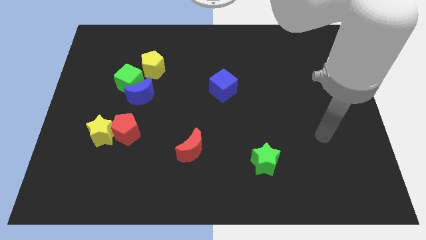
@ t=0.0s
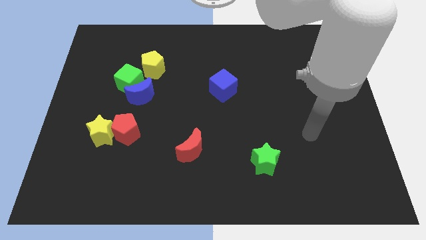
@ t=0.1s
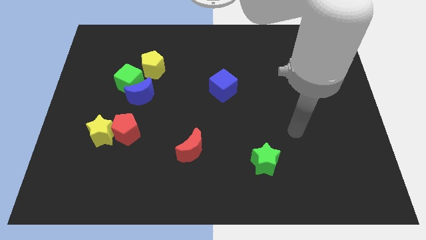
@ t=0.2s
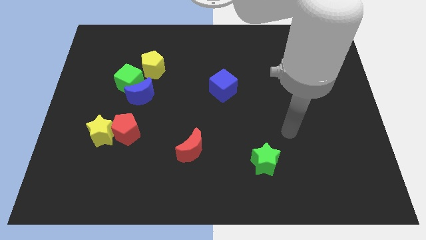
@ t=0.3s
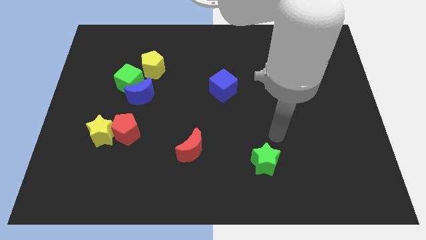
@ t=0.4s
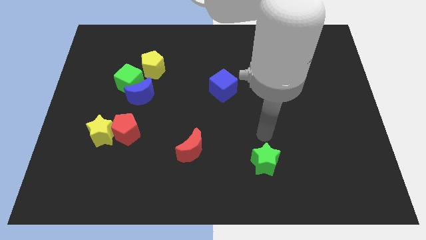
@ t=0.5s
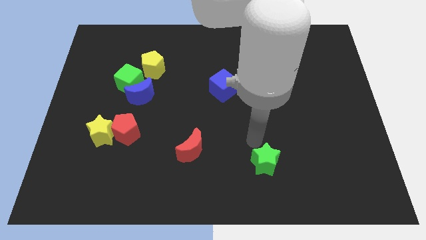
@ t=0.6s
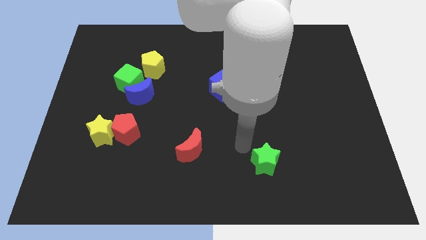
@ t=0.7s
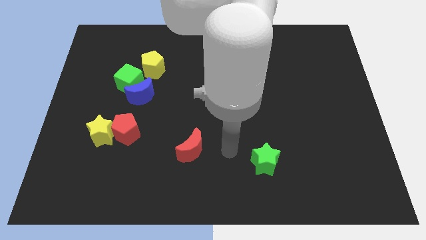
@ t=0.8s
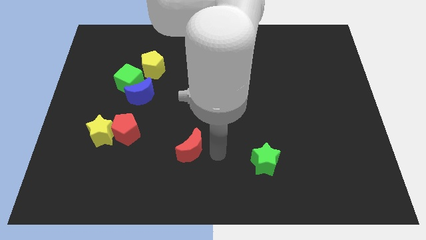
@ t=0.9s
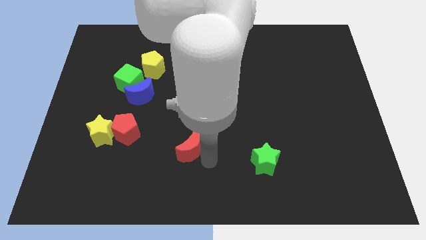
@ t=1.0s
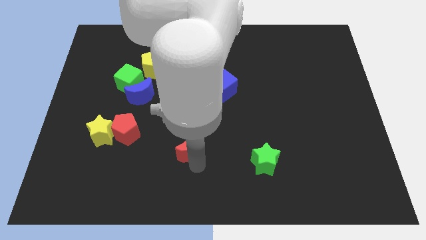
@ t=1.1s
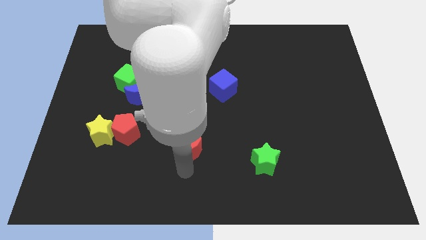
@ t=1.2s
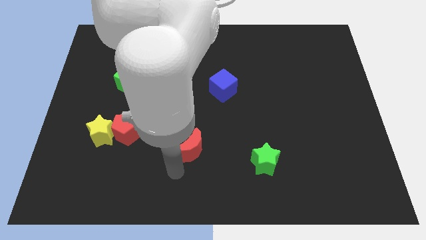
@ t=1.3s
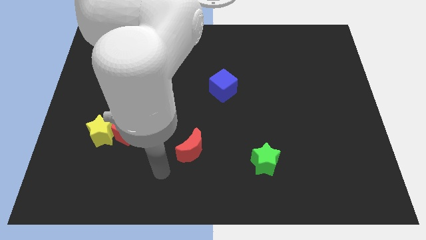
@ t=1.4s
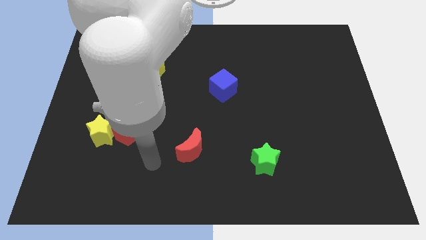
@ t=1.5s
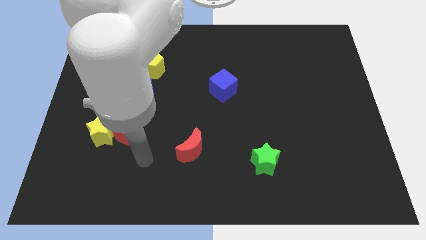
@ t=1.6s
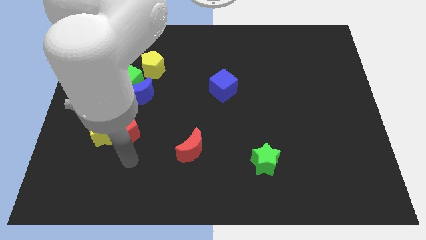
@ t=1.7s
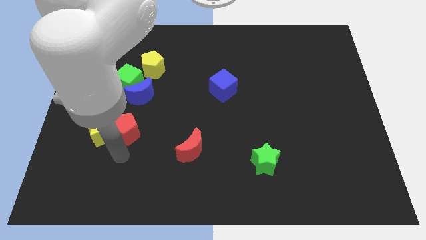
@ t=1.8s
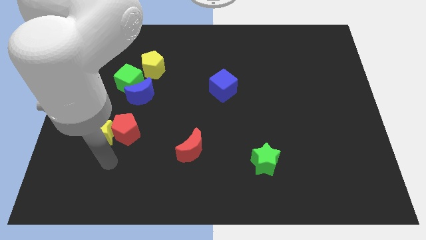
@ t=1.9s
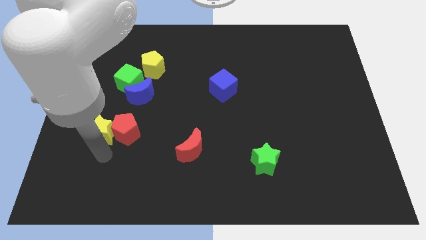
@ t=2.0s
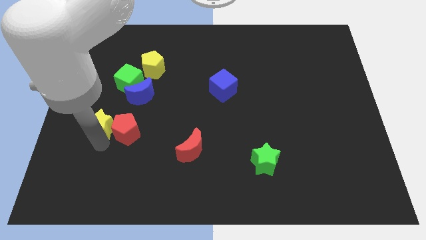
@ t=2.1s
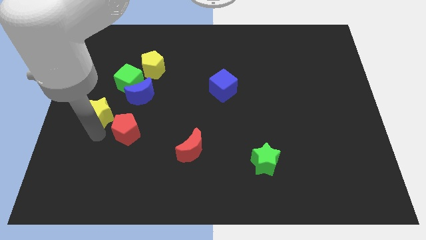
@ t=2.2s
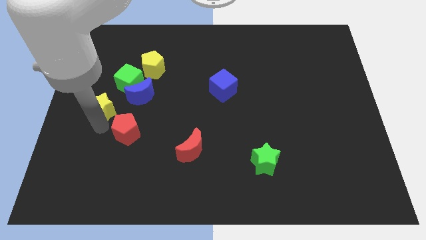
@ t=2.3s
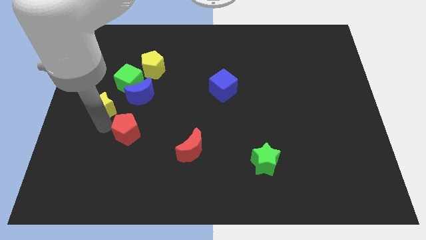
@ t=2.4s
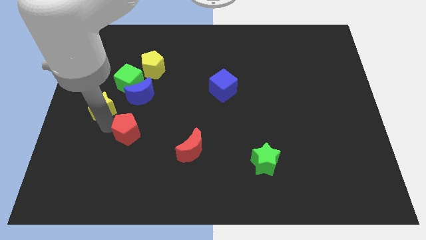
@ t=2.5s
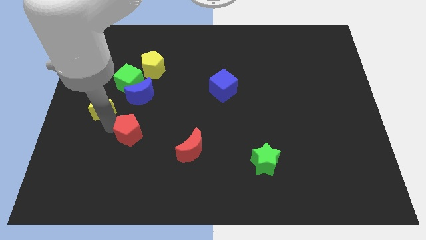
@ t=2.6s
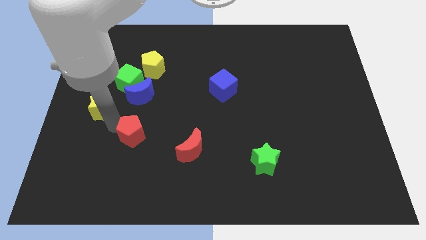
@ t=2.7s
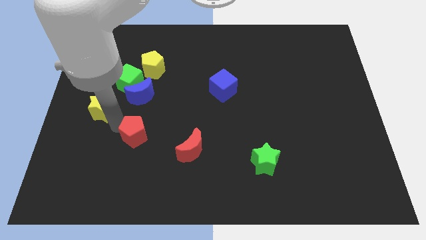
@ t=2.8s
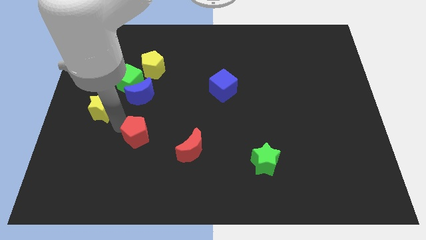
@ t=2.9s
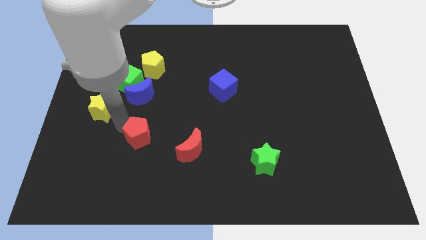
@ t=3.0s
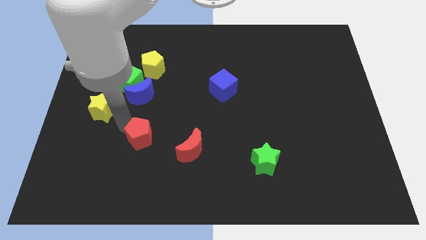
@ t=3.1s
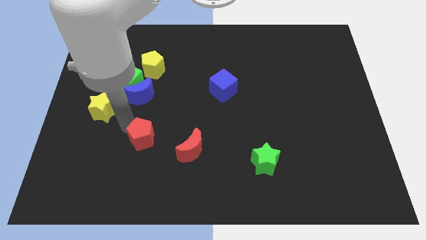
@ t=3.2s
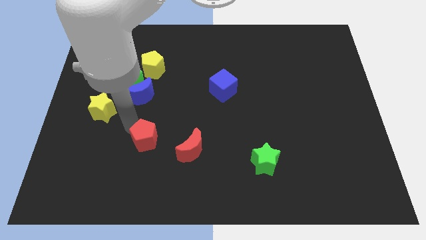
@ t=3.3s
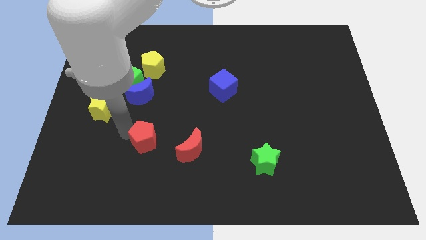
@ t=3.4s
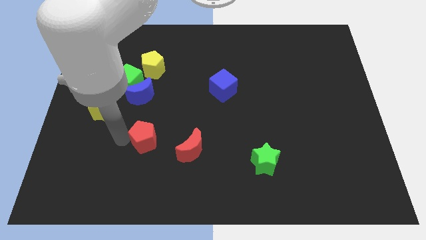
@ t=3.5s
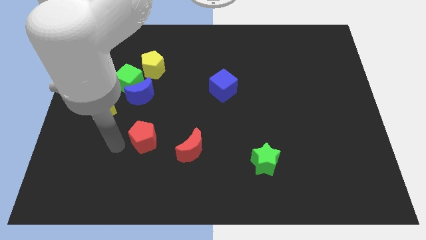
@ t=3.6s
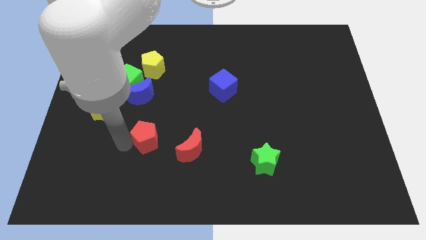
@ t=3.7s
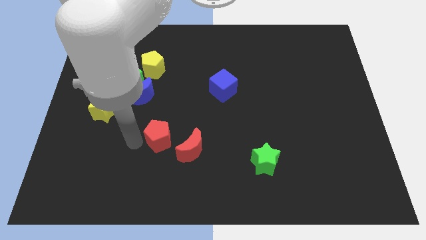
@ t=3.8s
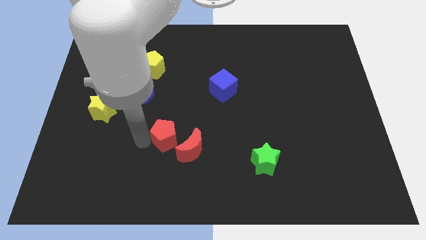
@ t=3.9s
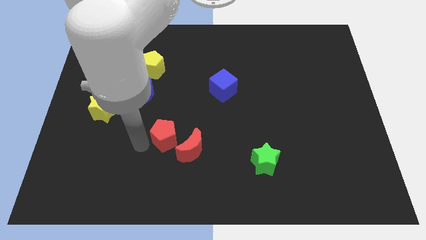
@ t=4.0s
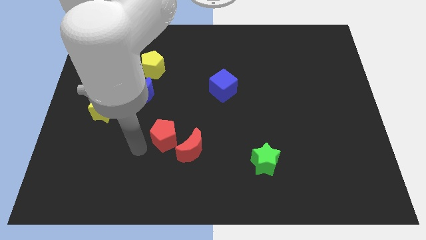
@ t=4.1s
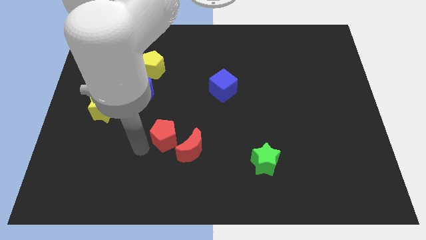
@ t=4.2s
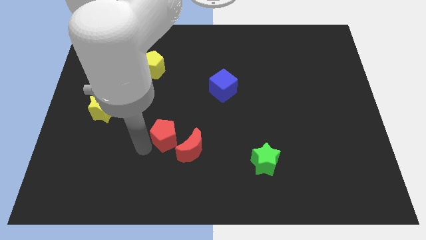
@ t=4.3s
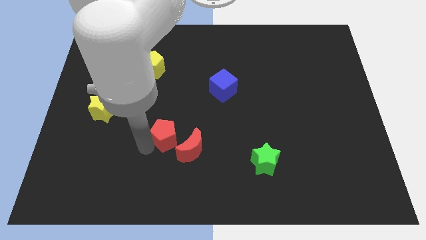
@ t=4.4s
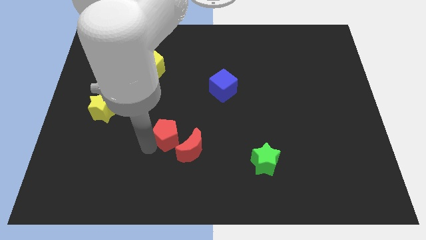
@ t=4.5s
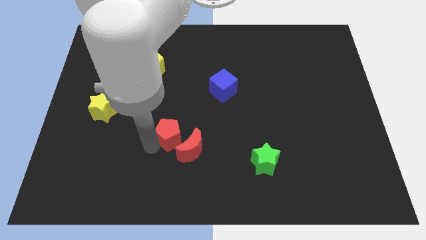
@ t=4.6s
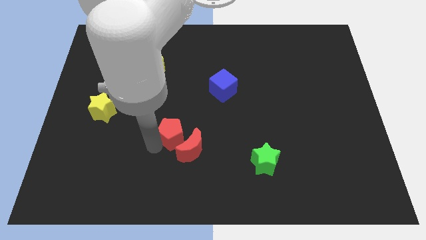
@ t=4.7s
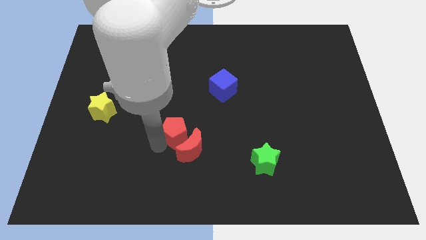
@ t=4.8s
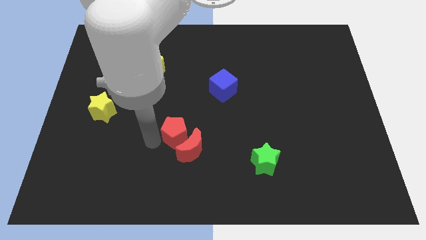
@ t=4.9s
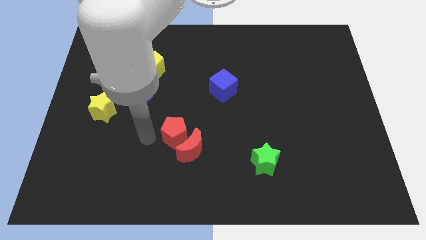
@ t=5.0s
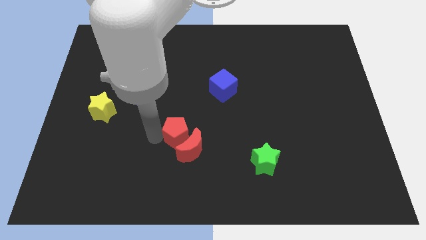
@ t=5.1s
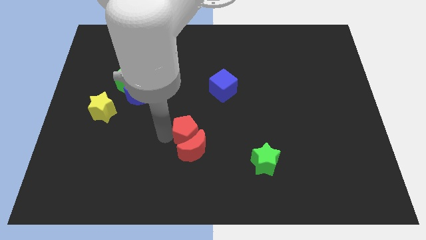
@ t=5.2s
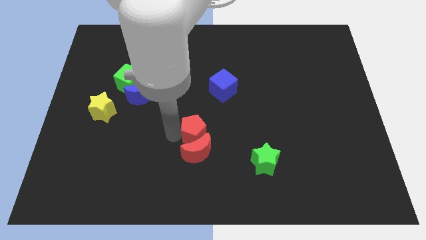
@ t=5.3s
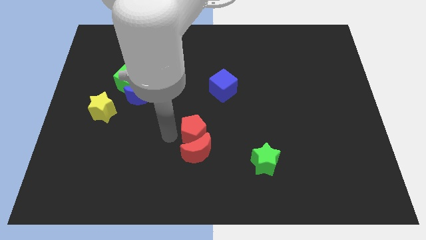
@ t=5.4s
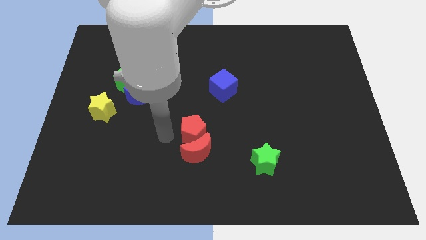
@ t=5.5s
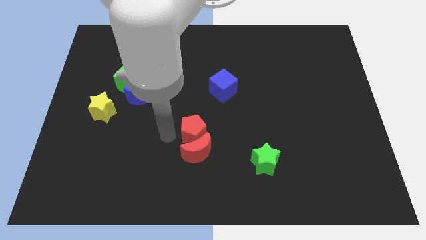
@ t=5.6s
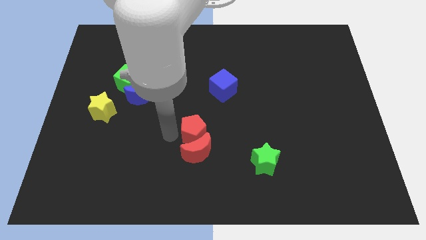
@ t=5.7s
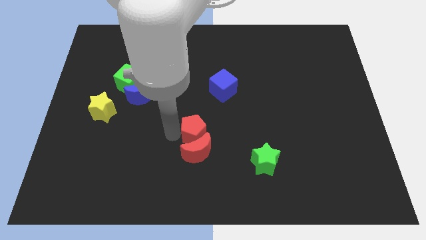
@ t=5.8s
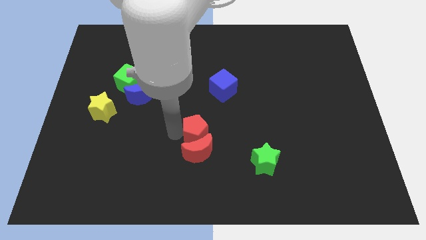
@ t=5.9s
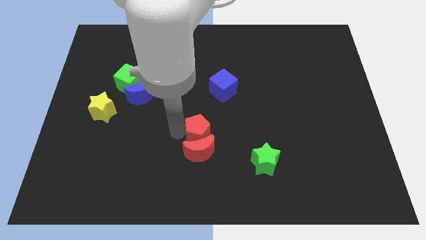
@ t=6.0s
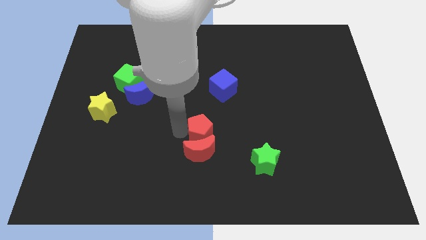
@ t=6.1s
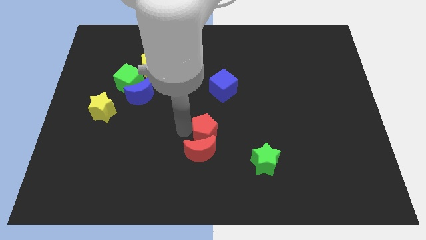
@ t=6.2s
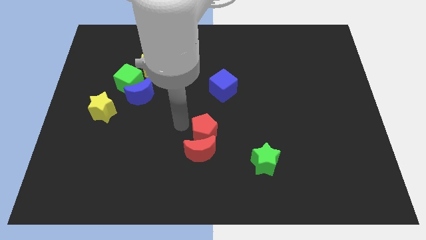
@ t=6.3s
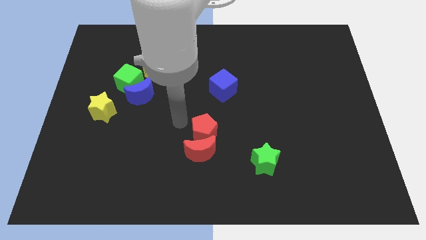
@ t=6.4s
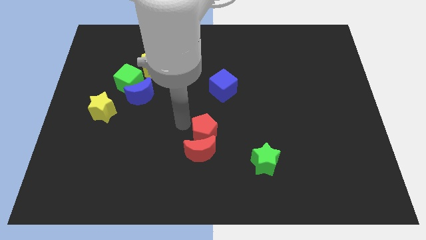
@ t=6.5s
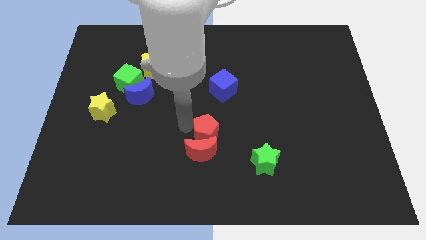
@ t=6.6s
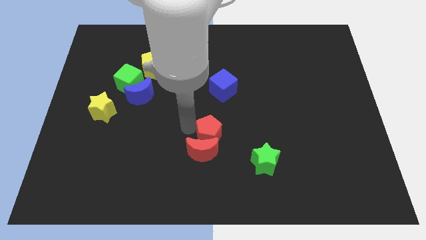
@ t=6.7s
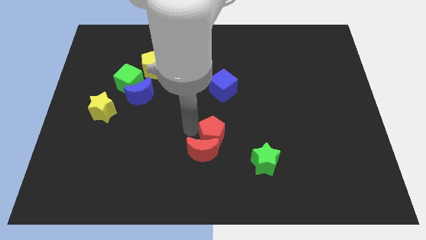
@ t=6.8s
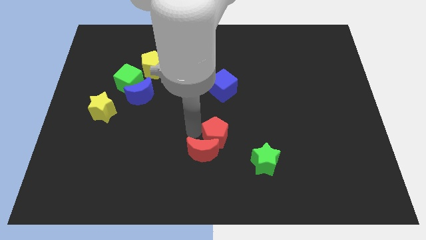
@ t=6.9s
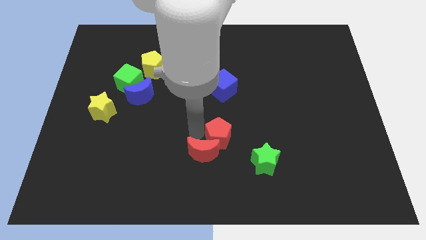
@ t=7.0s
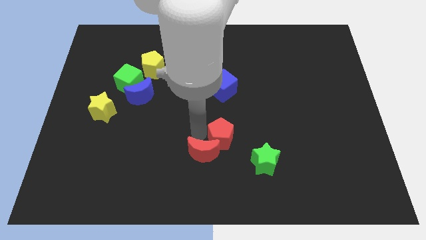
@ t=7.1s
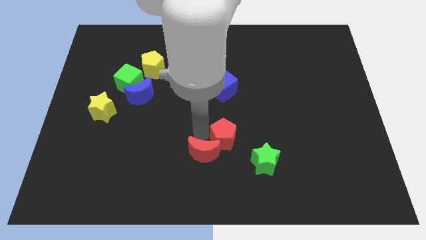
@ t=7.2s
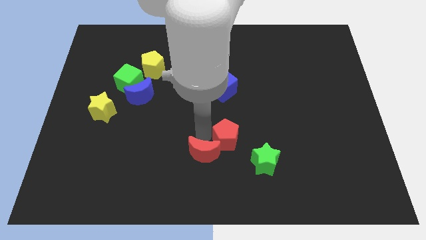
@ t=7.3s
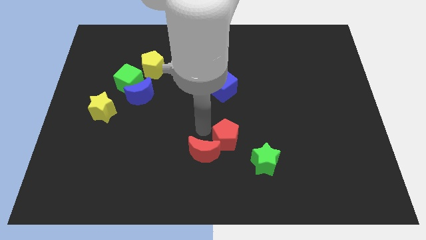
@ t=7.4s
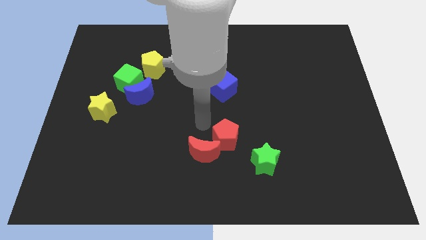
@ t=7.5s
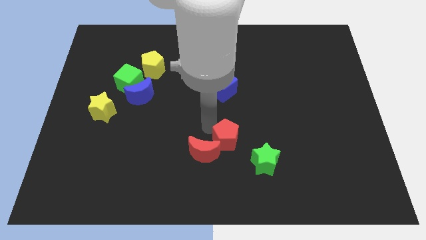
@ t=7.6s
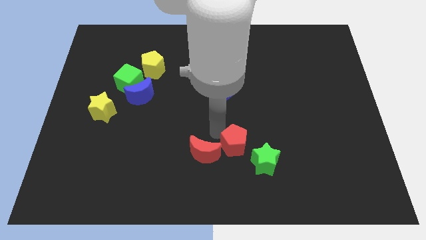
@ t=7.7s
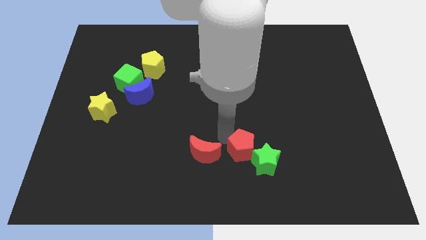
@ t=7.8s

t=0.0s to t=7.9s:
put the red pentagon next to the green star
